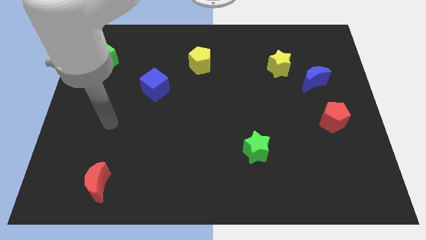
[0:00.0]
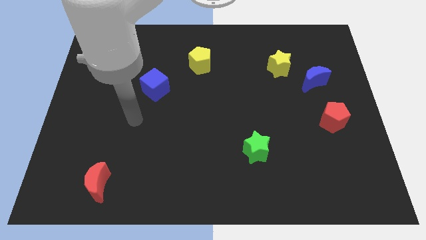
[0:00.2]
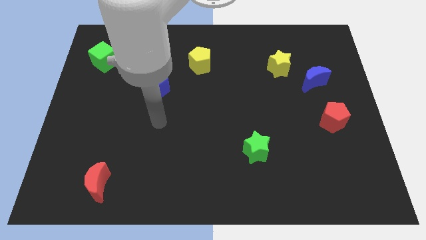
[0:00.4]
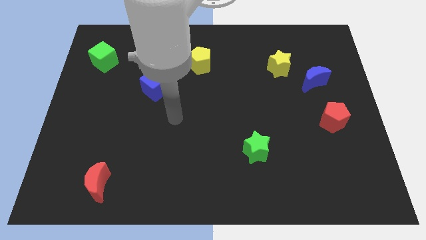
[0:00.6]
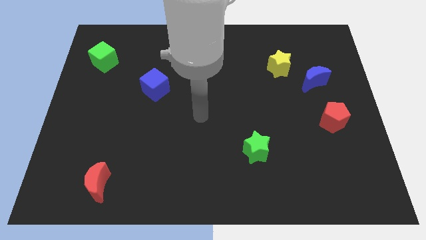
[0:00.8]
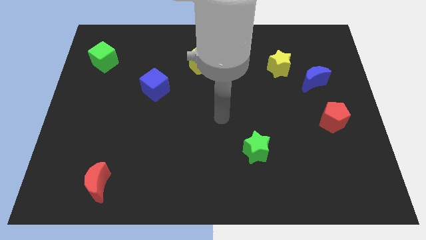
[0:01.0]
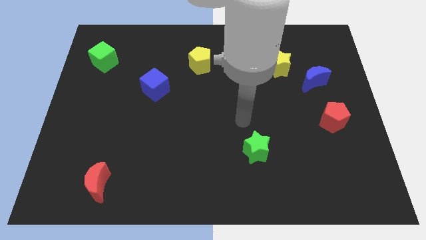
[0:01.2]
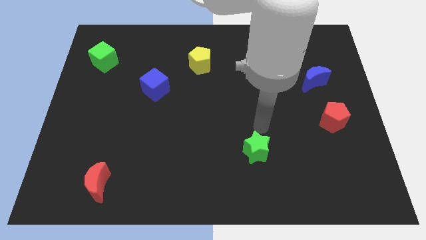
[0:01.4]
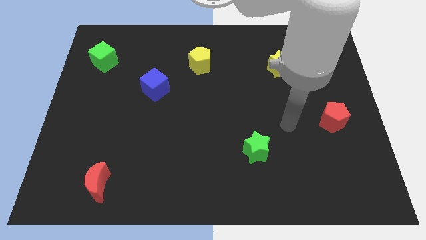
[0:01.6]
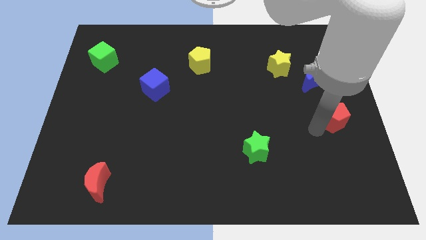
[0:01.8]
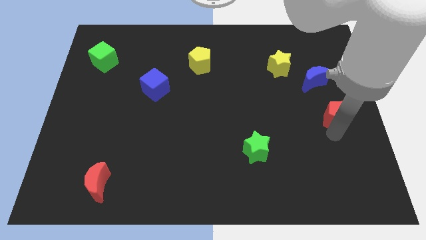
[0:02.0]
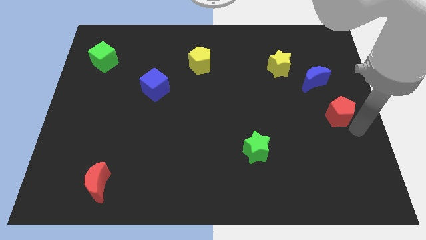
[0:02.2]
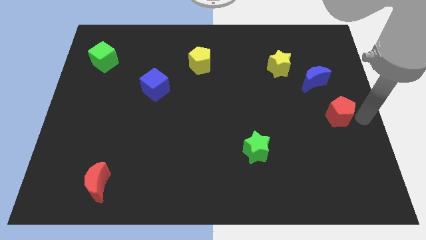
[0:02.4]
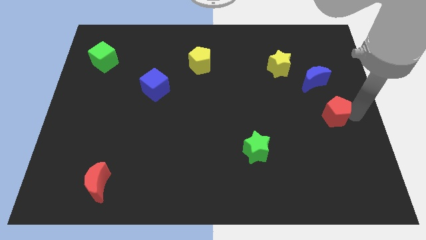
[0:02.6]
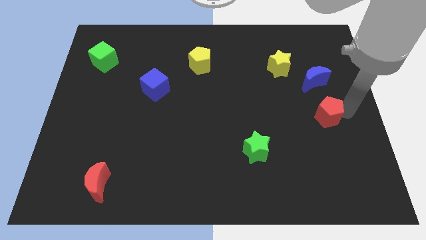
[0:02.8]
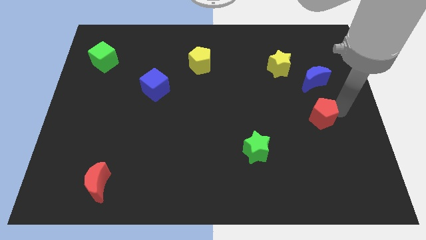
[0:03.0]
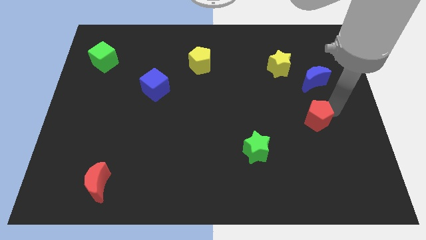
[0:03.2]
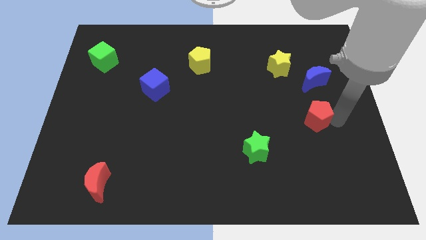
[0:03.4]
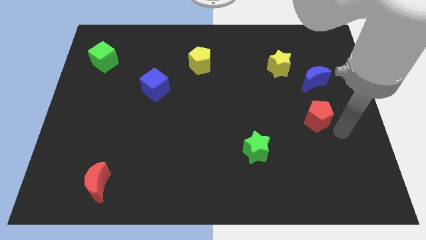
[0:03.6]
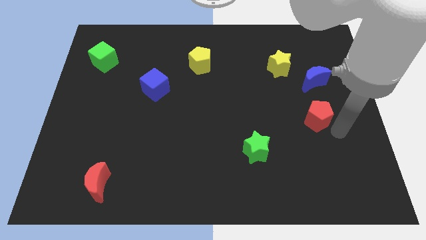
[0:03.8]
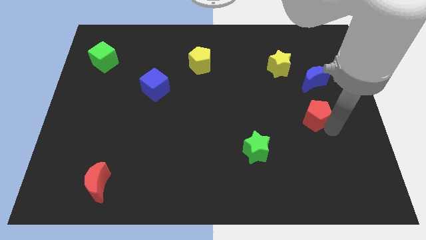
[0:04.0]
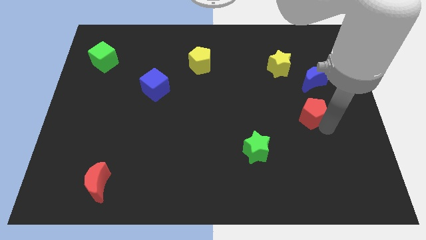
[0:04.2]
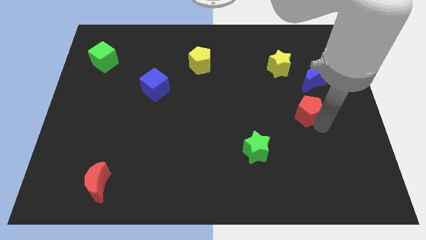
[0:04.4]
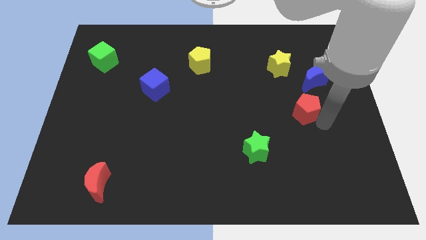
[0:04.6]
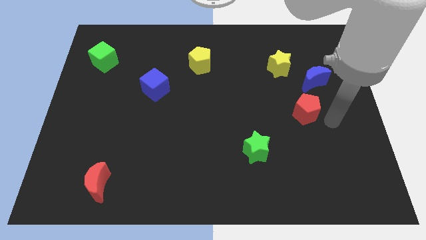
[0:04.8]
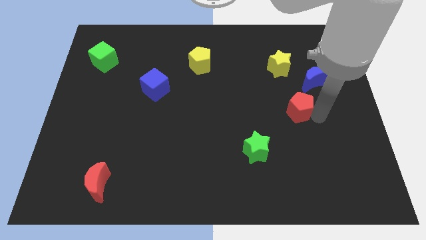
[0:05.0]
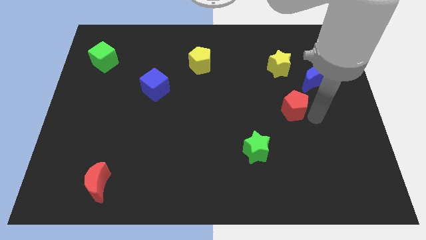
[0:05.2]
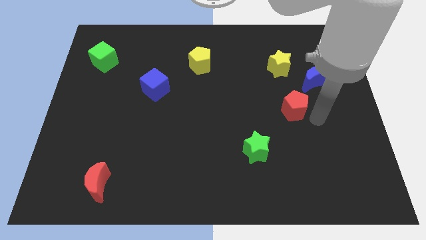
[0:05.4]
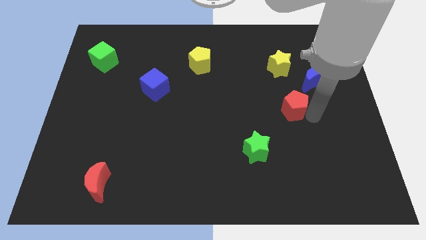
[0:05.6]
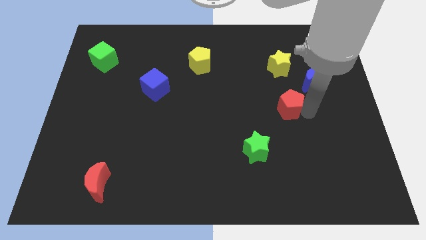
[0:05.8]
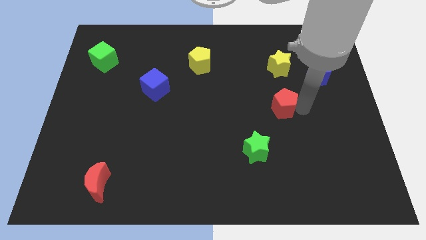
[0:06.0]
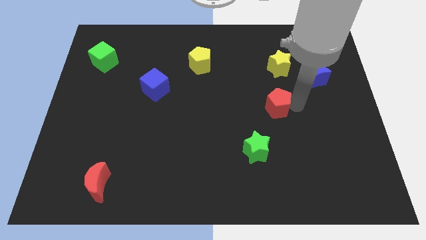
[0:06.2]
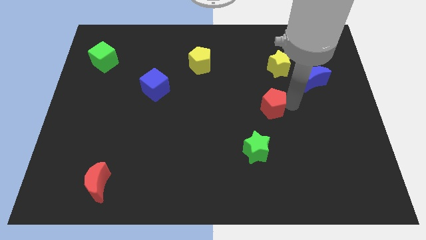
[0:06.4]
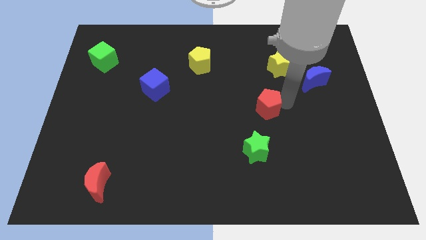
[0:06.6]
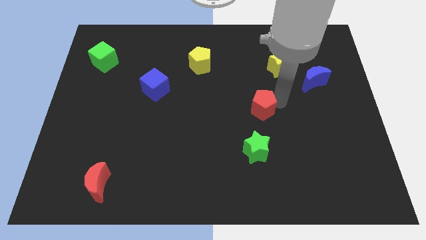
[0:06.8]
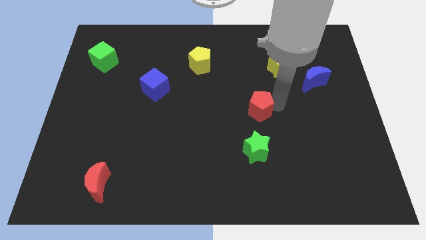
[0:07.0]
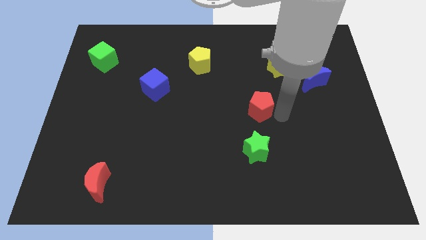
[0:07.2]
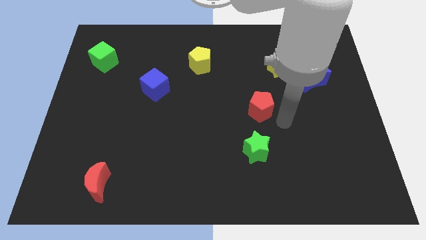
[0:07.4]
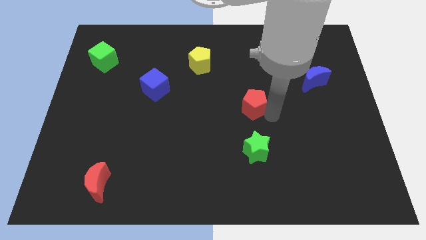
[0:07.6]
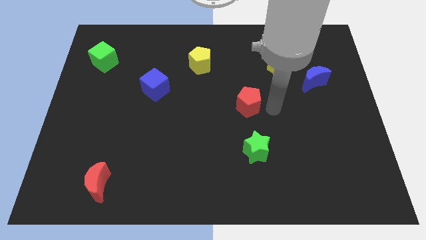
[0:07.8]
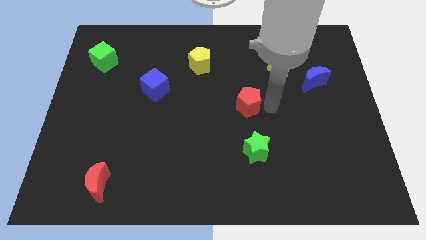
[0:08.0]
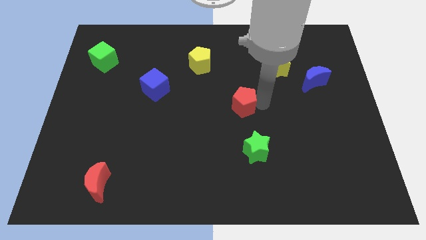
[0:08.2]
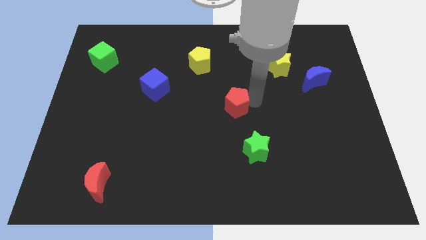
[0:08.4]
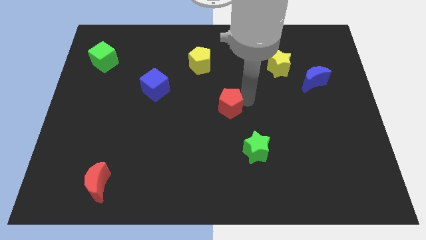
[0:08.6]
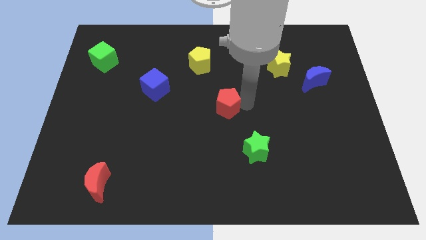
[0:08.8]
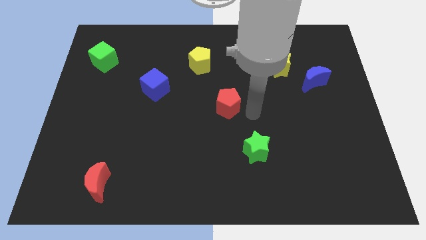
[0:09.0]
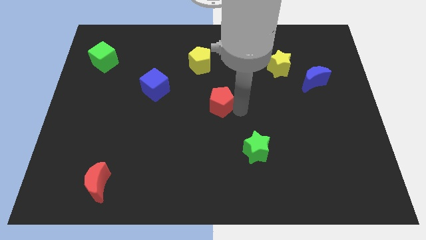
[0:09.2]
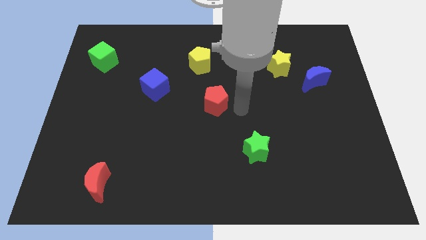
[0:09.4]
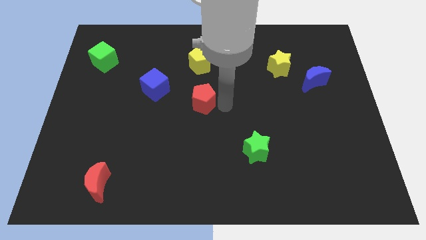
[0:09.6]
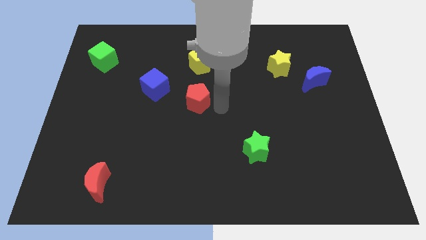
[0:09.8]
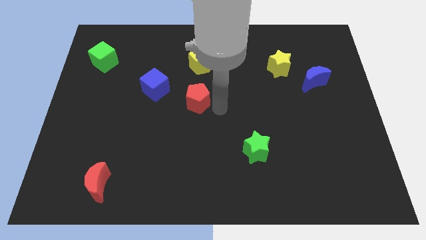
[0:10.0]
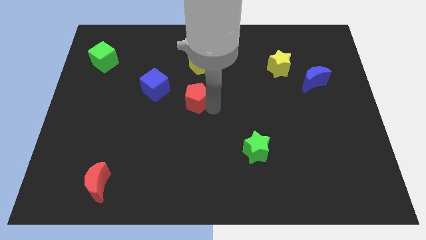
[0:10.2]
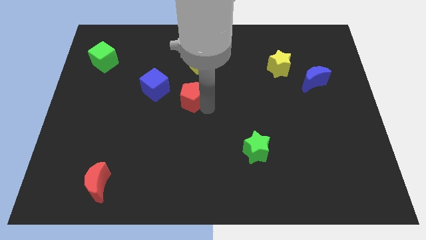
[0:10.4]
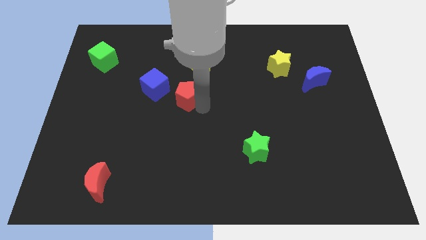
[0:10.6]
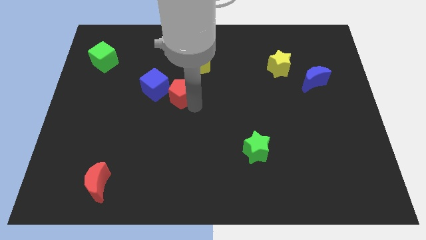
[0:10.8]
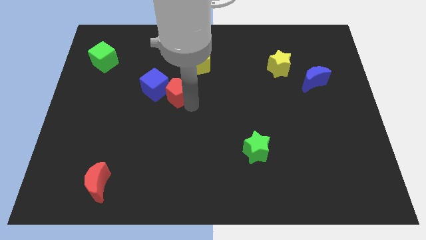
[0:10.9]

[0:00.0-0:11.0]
push the red pentagon next to the blue cube

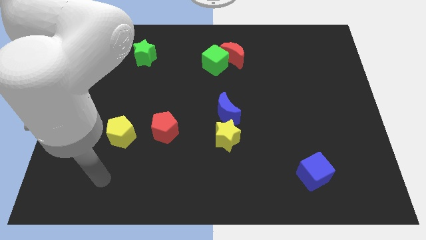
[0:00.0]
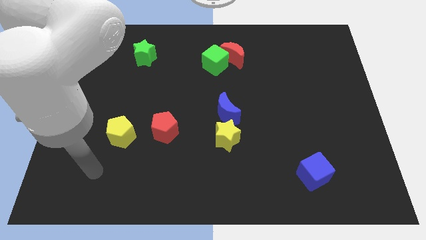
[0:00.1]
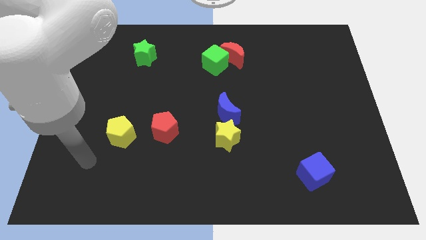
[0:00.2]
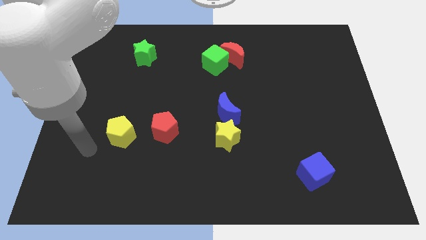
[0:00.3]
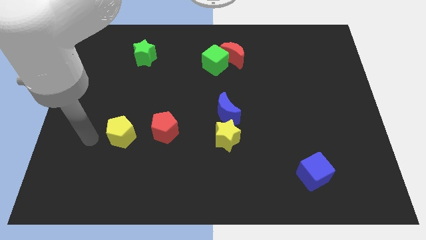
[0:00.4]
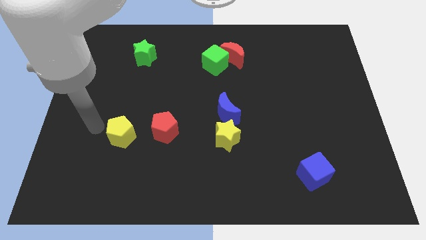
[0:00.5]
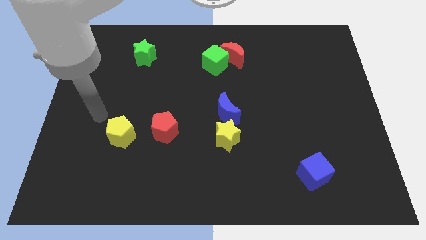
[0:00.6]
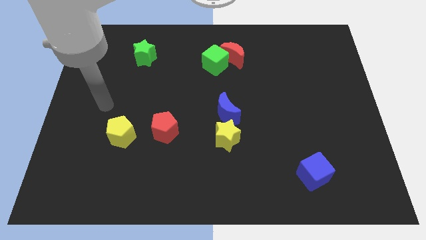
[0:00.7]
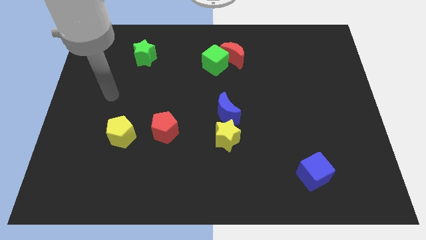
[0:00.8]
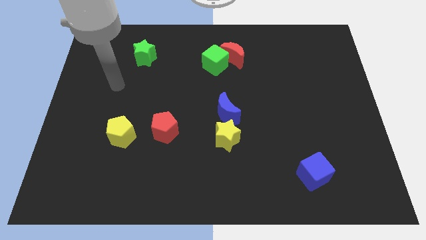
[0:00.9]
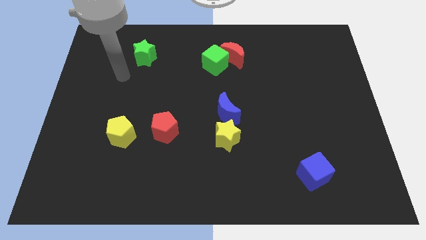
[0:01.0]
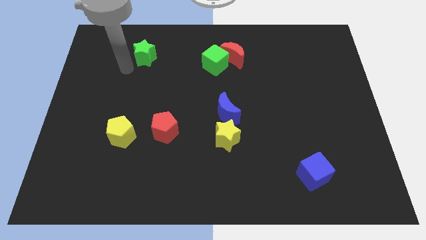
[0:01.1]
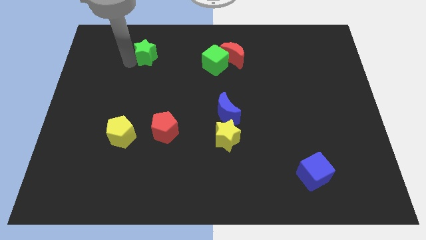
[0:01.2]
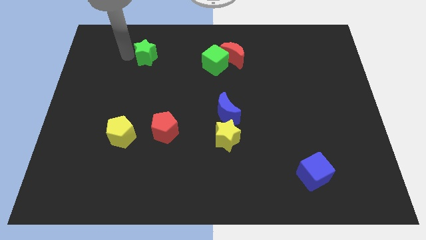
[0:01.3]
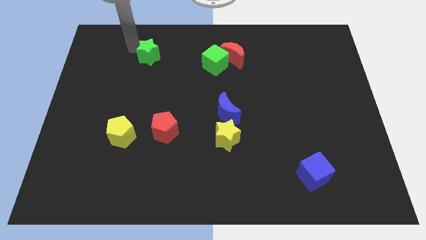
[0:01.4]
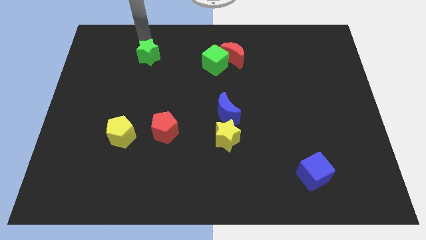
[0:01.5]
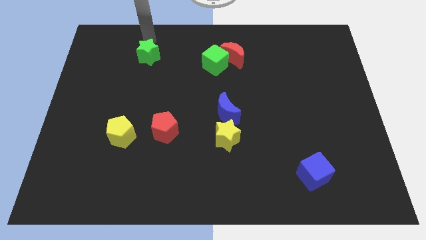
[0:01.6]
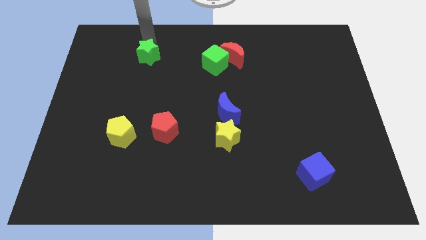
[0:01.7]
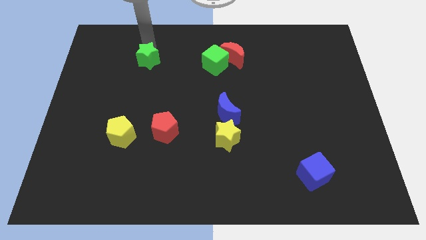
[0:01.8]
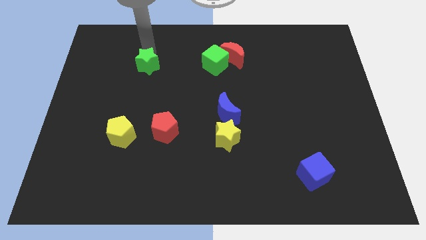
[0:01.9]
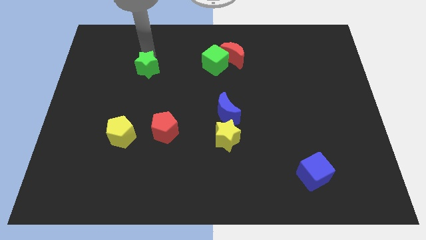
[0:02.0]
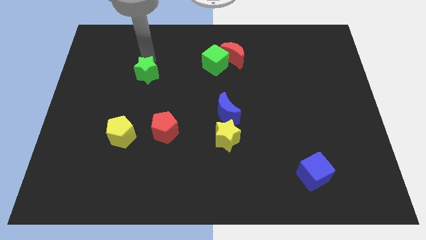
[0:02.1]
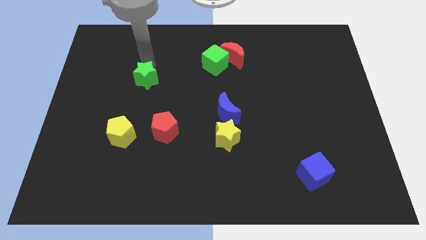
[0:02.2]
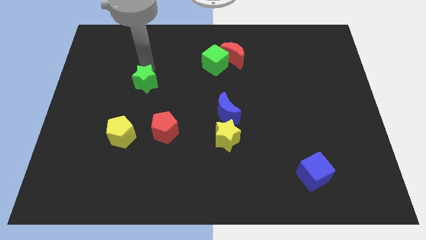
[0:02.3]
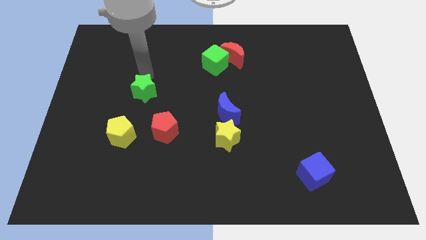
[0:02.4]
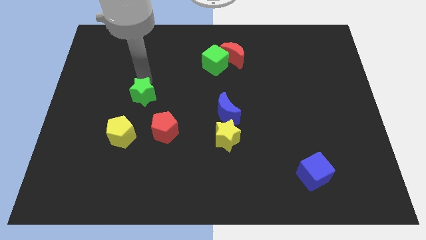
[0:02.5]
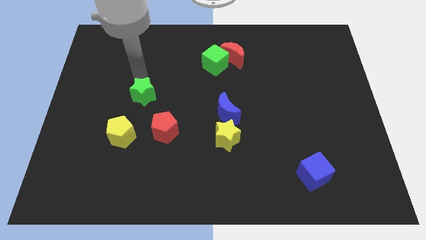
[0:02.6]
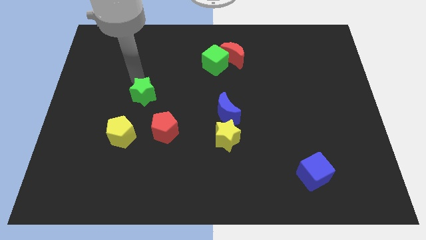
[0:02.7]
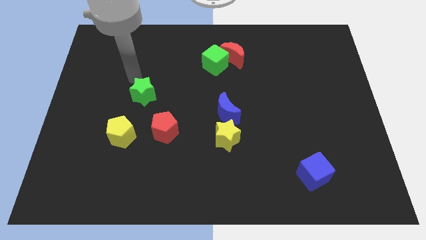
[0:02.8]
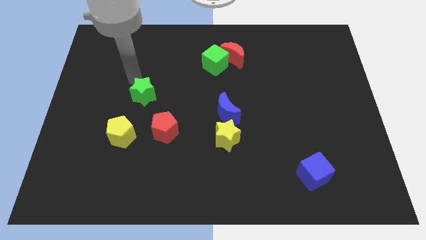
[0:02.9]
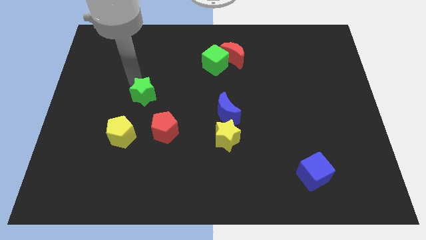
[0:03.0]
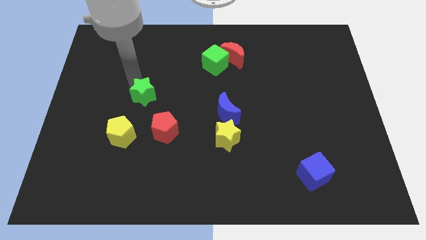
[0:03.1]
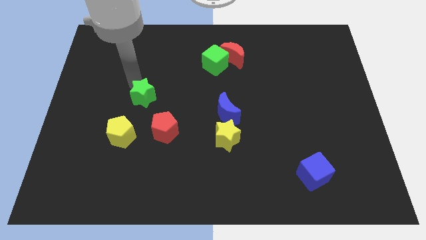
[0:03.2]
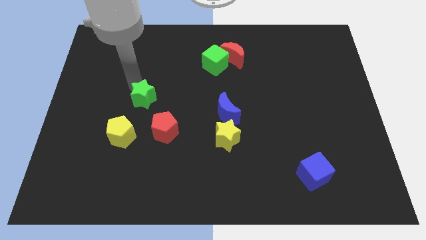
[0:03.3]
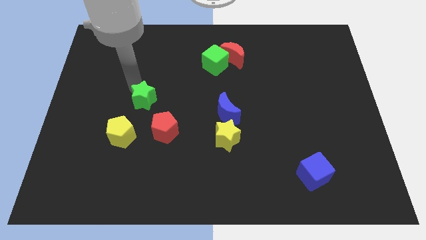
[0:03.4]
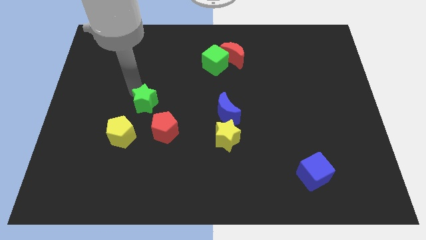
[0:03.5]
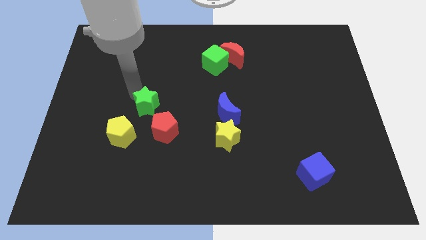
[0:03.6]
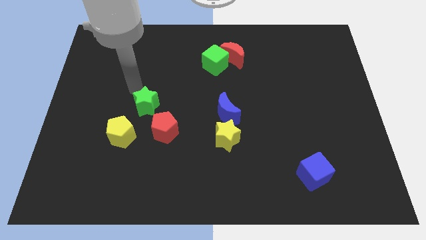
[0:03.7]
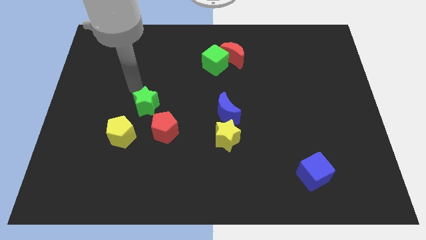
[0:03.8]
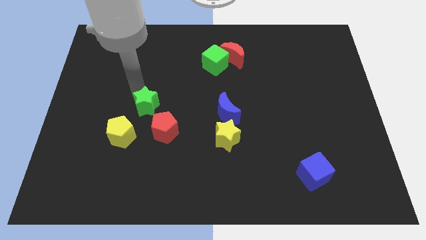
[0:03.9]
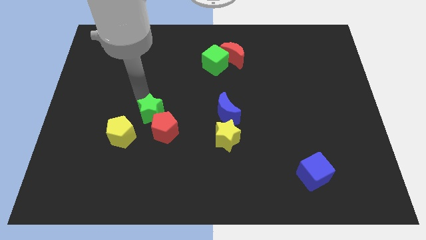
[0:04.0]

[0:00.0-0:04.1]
put the green star next to the red pentagon
